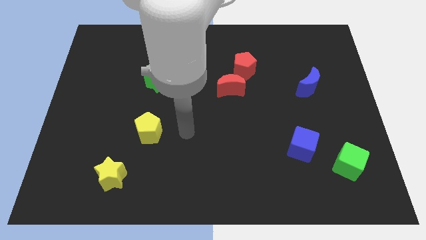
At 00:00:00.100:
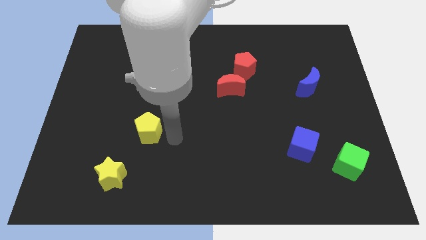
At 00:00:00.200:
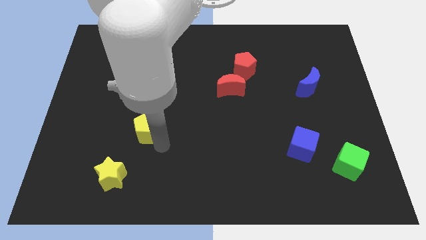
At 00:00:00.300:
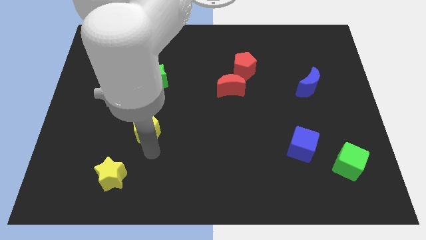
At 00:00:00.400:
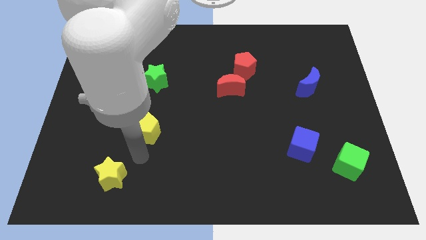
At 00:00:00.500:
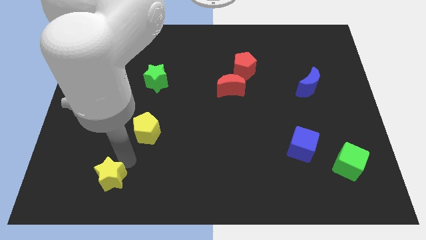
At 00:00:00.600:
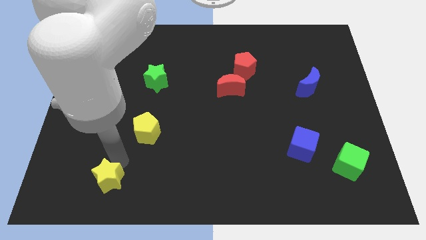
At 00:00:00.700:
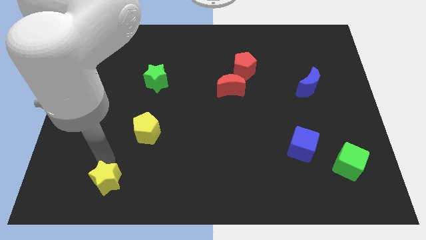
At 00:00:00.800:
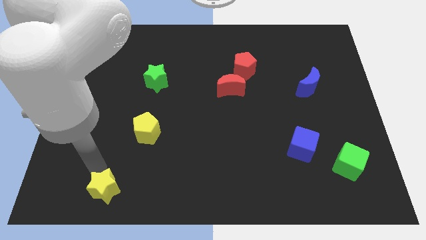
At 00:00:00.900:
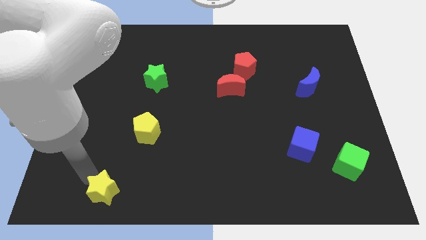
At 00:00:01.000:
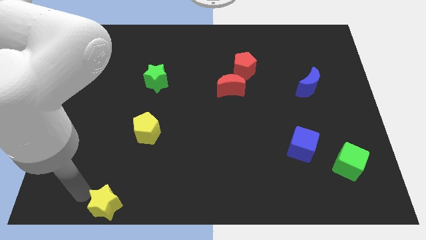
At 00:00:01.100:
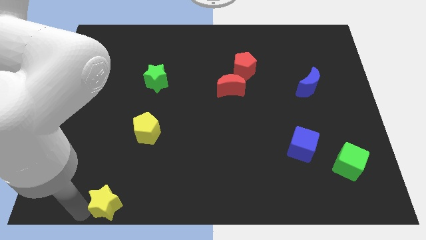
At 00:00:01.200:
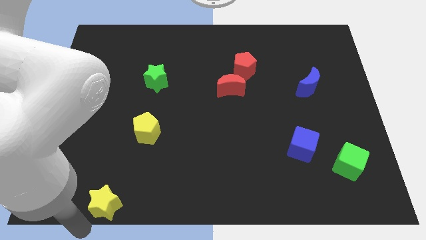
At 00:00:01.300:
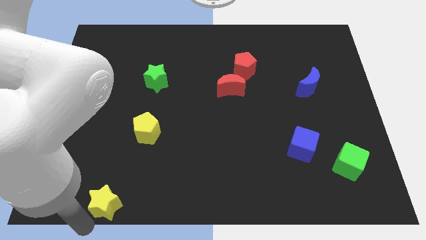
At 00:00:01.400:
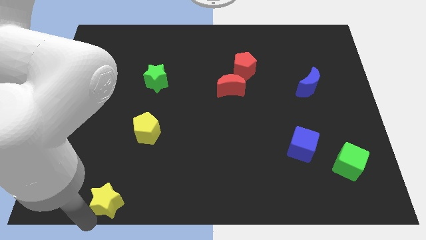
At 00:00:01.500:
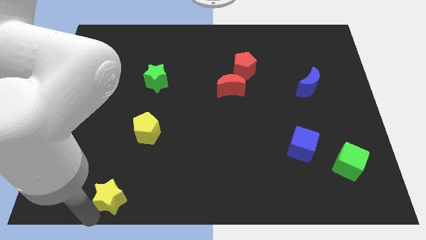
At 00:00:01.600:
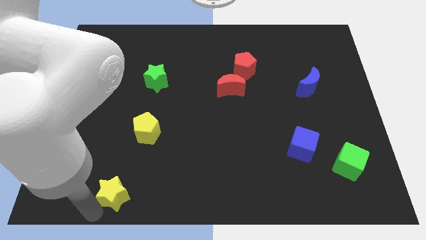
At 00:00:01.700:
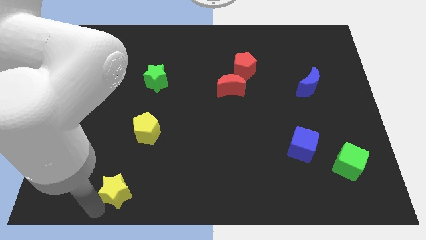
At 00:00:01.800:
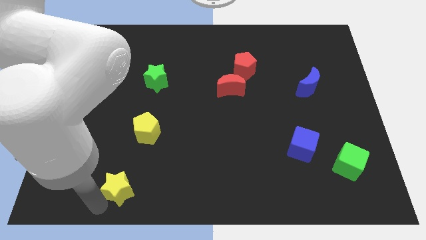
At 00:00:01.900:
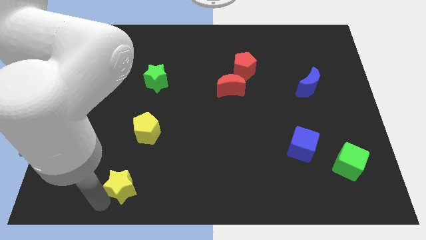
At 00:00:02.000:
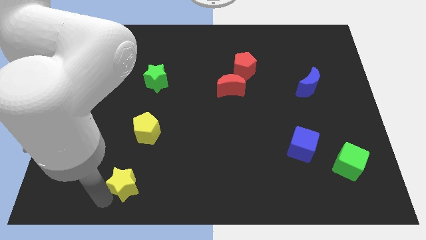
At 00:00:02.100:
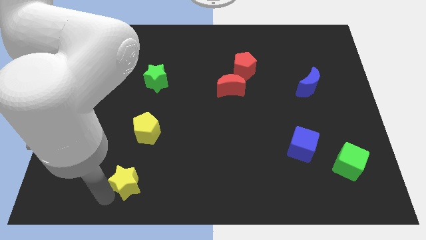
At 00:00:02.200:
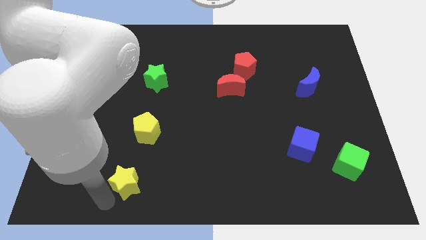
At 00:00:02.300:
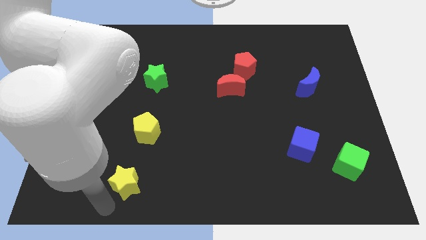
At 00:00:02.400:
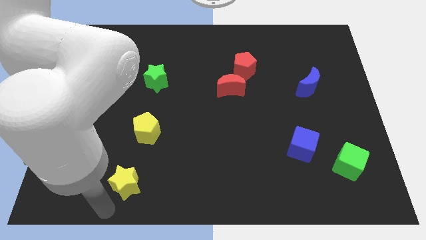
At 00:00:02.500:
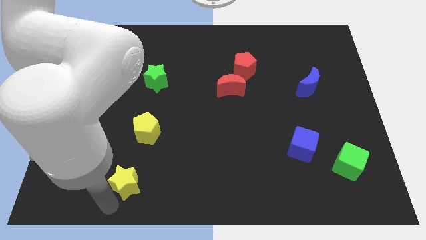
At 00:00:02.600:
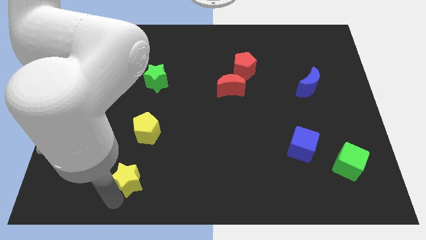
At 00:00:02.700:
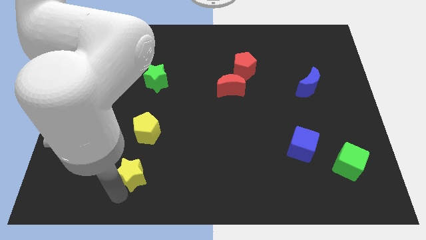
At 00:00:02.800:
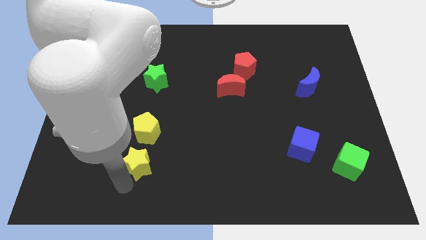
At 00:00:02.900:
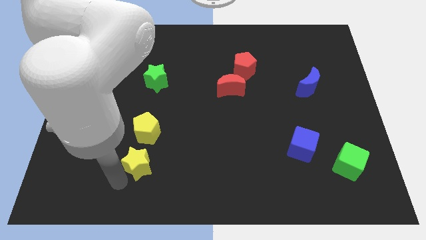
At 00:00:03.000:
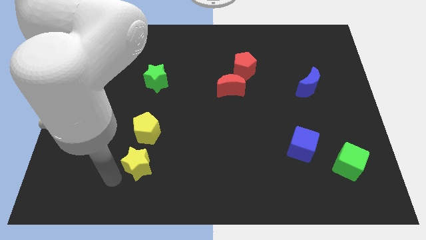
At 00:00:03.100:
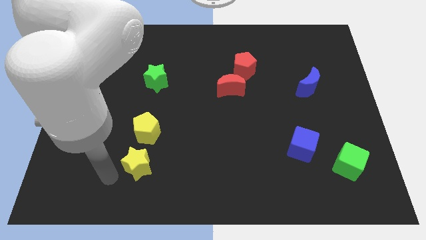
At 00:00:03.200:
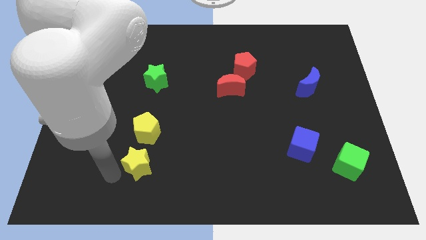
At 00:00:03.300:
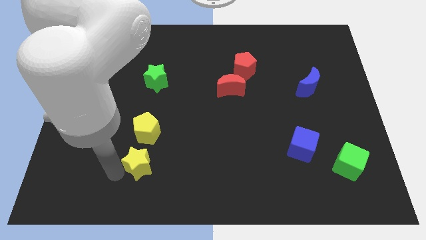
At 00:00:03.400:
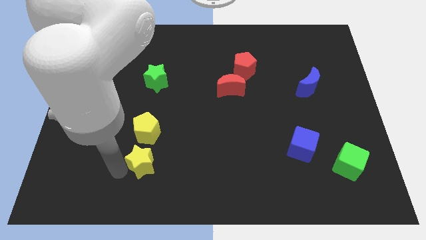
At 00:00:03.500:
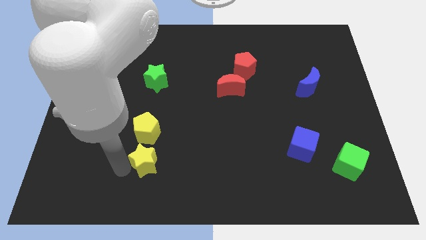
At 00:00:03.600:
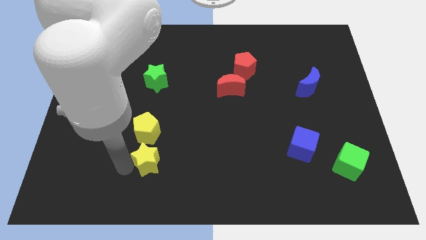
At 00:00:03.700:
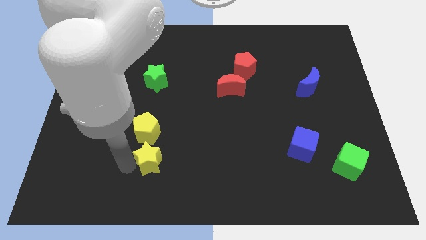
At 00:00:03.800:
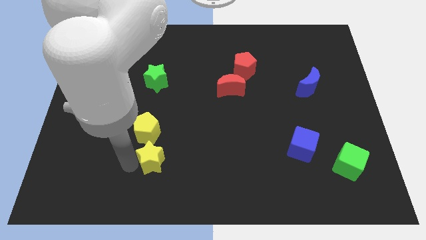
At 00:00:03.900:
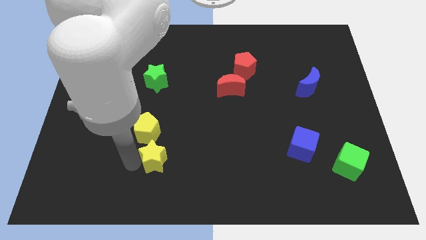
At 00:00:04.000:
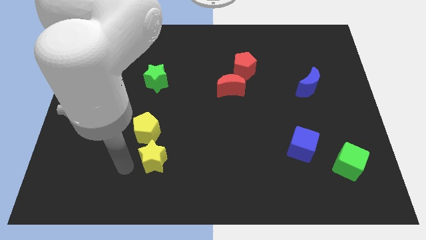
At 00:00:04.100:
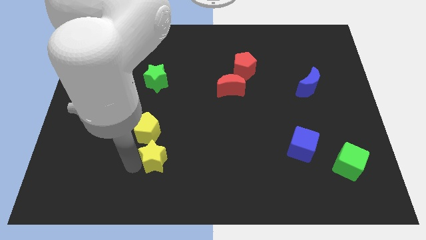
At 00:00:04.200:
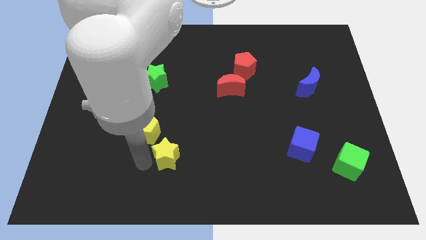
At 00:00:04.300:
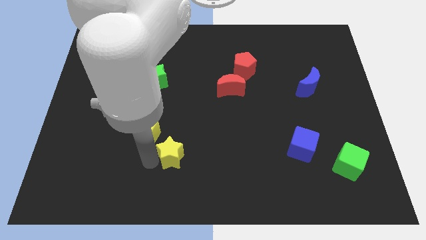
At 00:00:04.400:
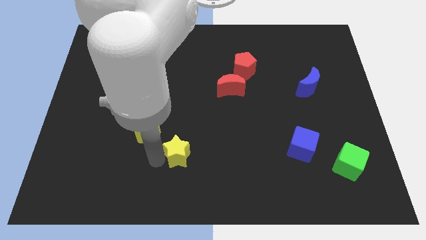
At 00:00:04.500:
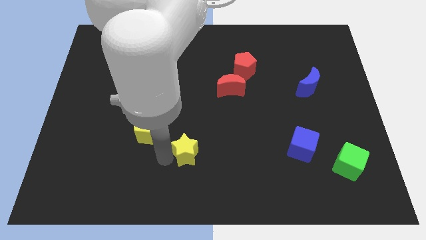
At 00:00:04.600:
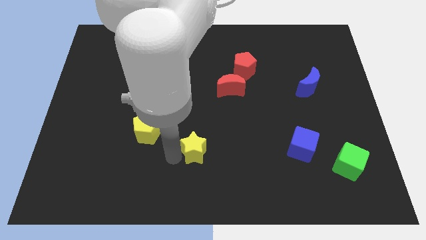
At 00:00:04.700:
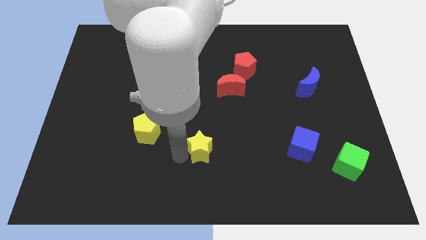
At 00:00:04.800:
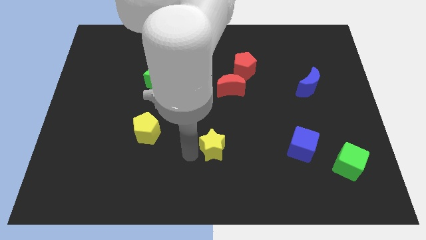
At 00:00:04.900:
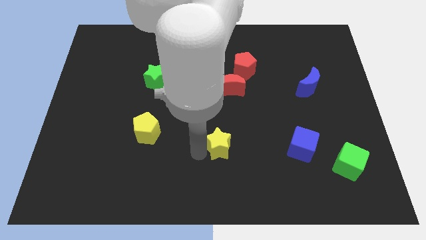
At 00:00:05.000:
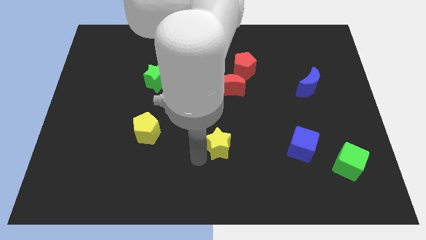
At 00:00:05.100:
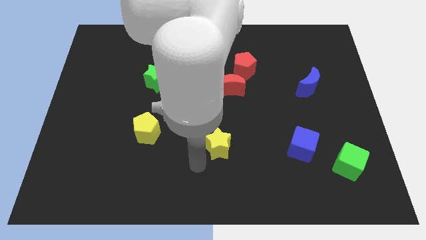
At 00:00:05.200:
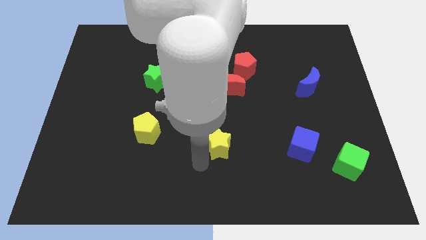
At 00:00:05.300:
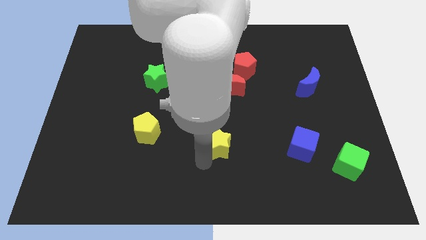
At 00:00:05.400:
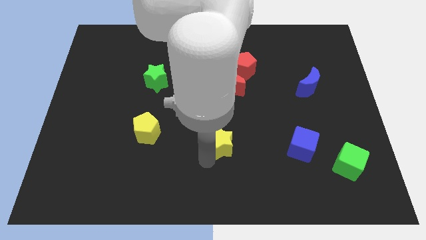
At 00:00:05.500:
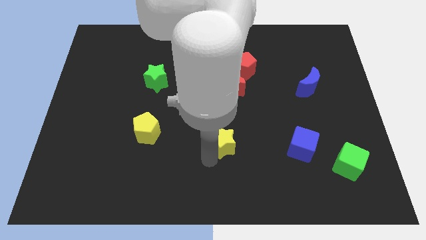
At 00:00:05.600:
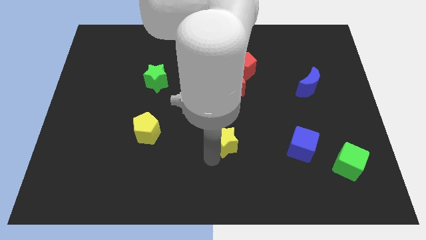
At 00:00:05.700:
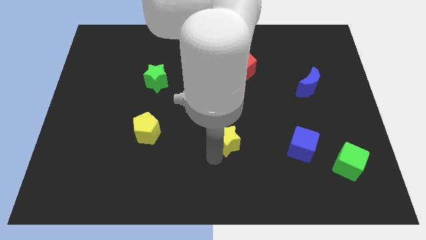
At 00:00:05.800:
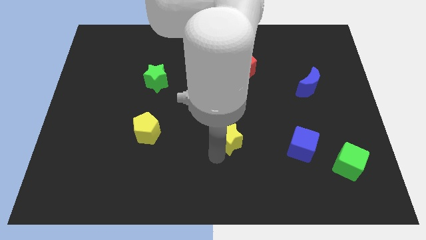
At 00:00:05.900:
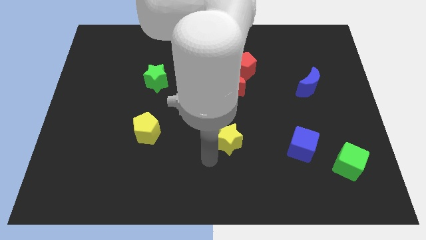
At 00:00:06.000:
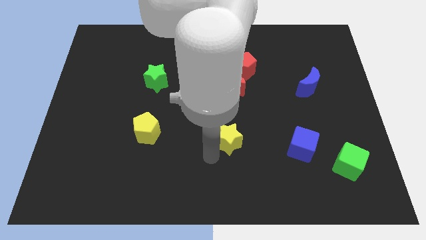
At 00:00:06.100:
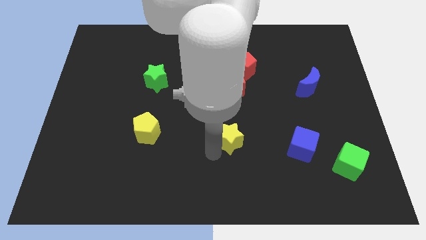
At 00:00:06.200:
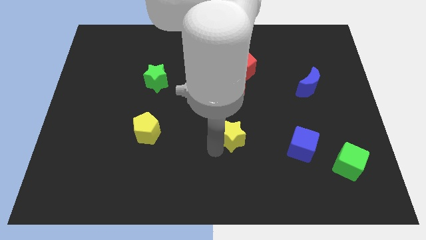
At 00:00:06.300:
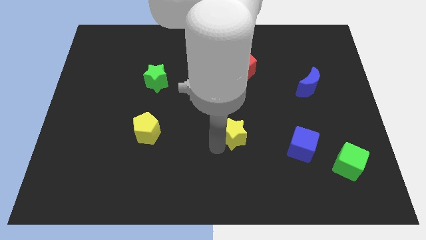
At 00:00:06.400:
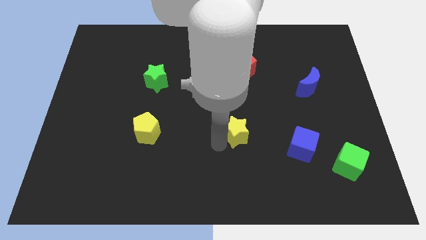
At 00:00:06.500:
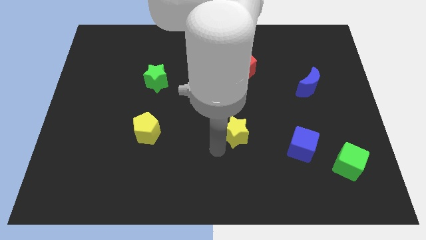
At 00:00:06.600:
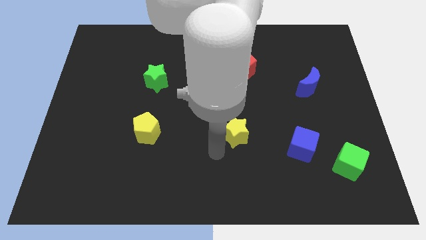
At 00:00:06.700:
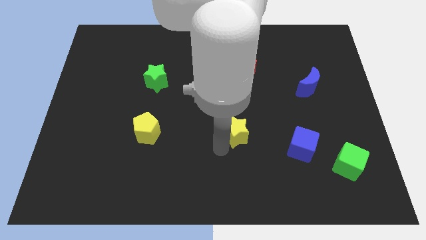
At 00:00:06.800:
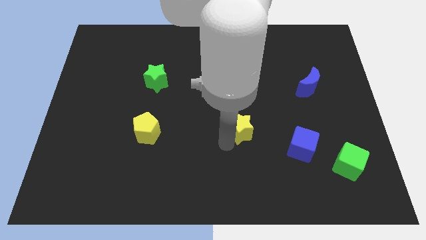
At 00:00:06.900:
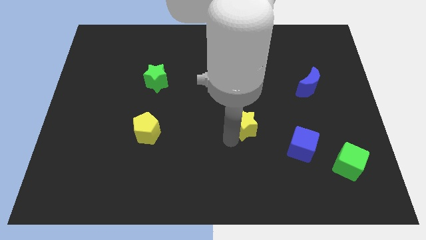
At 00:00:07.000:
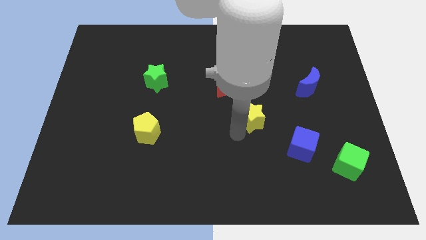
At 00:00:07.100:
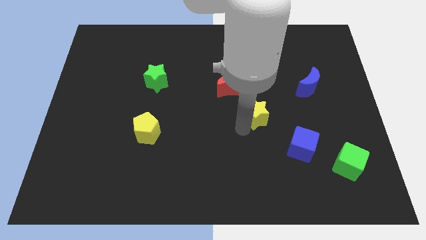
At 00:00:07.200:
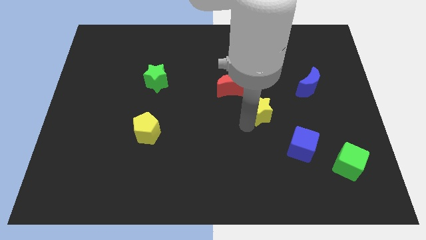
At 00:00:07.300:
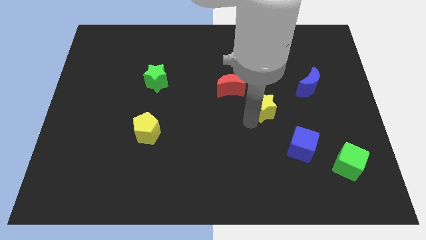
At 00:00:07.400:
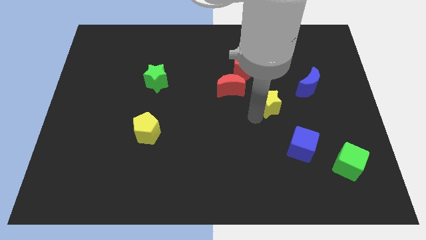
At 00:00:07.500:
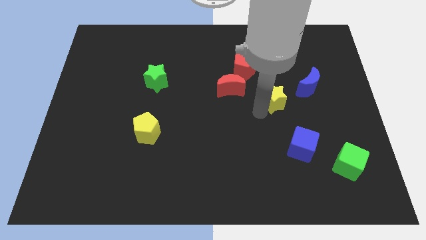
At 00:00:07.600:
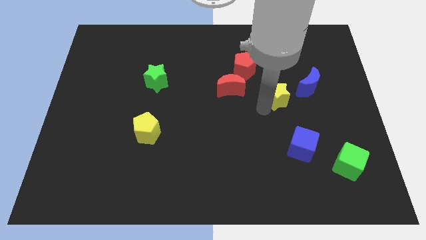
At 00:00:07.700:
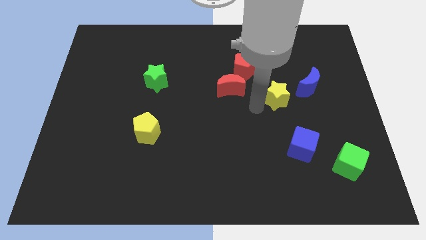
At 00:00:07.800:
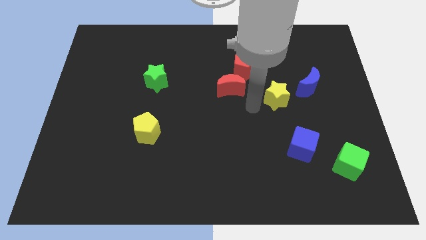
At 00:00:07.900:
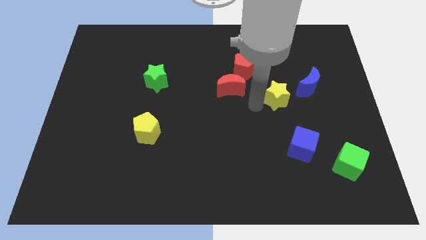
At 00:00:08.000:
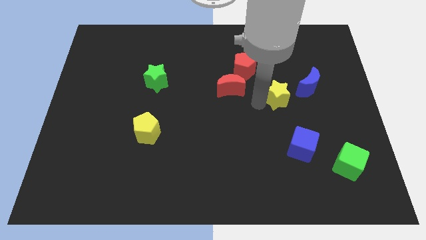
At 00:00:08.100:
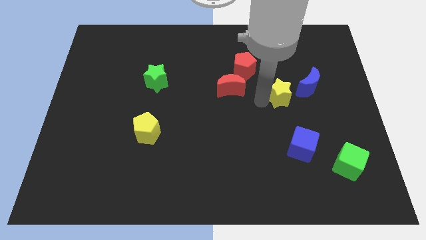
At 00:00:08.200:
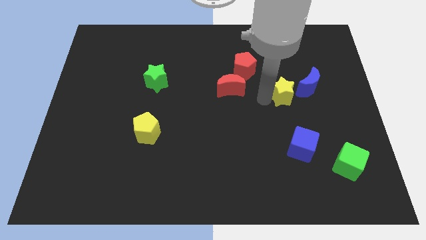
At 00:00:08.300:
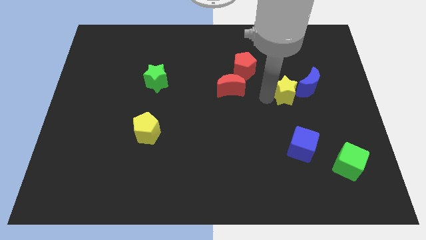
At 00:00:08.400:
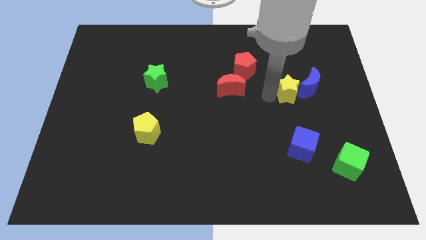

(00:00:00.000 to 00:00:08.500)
put the yellow star close to the blue moon
